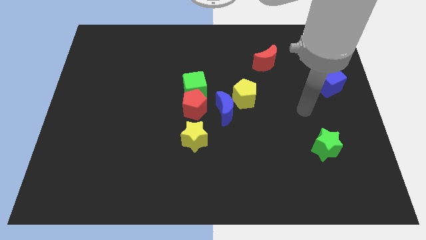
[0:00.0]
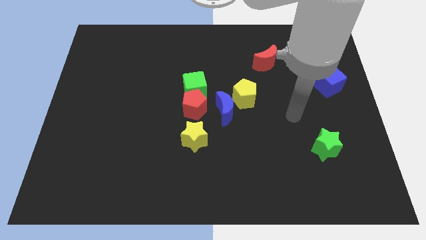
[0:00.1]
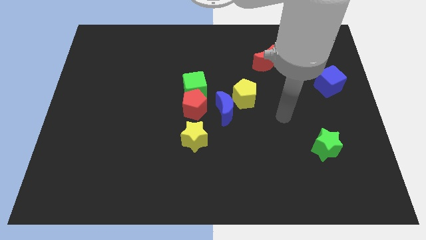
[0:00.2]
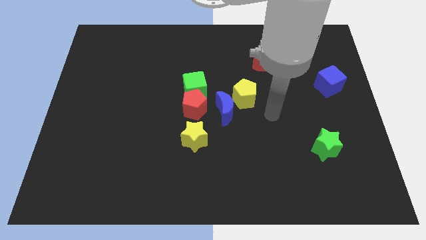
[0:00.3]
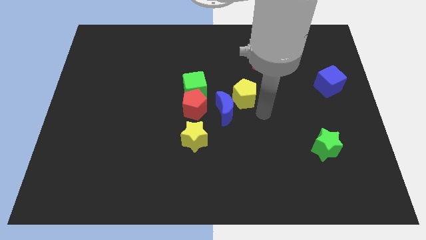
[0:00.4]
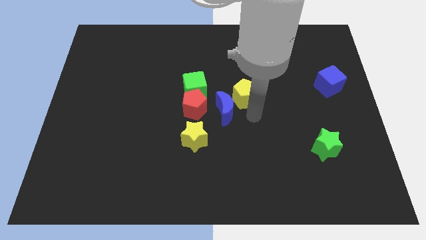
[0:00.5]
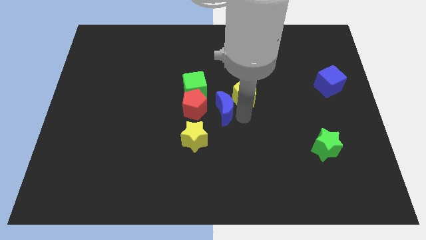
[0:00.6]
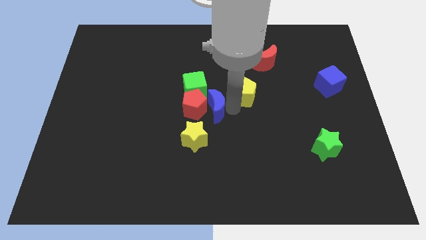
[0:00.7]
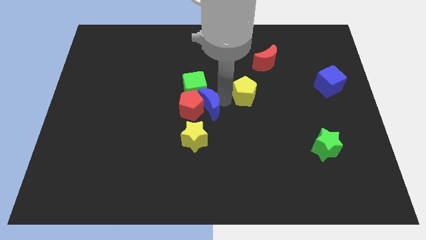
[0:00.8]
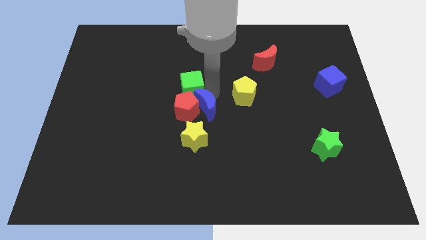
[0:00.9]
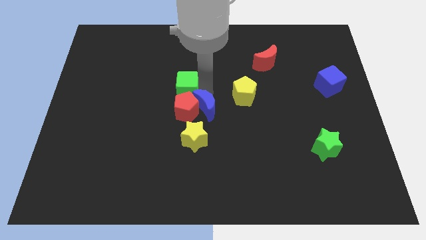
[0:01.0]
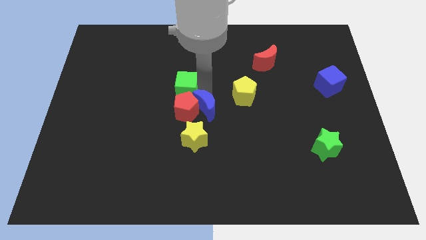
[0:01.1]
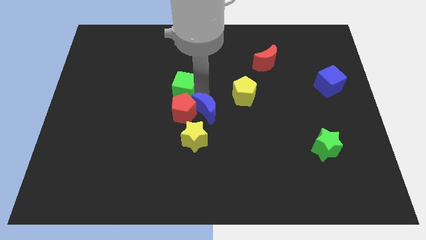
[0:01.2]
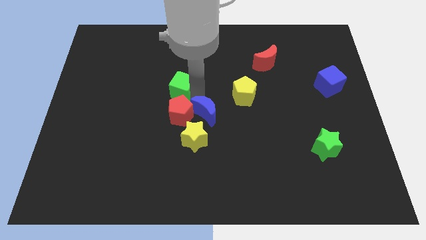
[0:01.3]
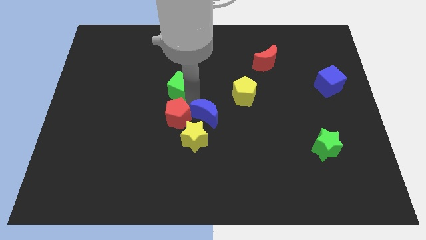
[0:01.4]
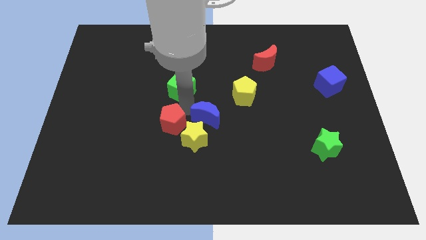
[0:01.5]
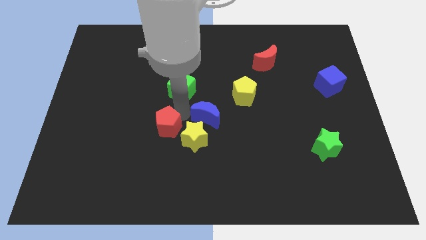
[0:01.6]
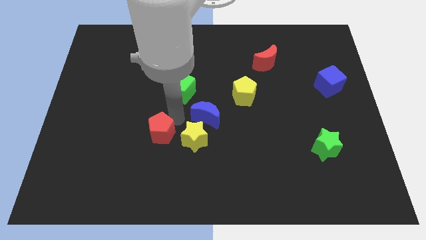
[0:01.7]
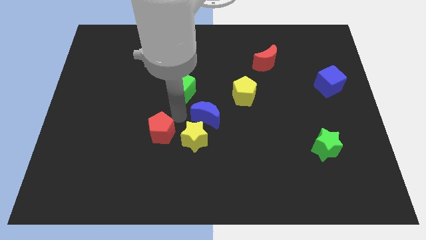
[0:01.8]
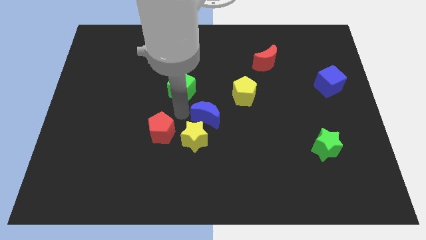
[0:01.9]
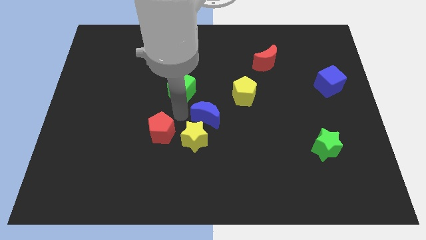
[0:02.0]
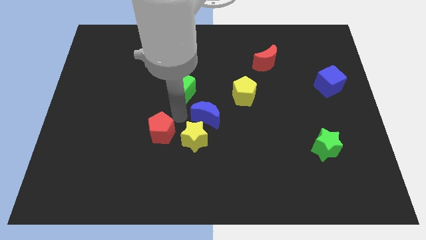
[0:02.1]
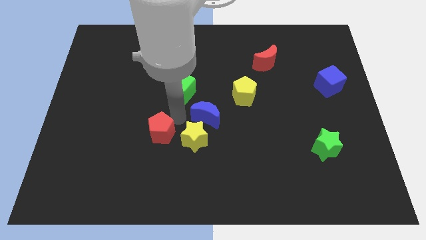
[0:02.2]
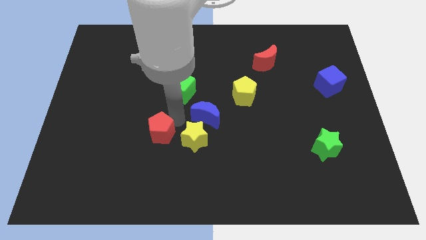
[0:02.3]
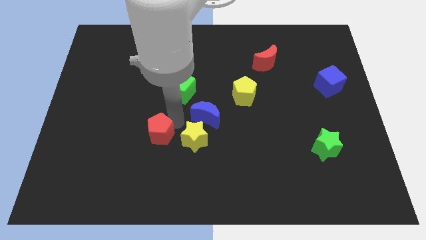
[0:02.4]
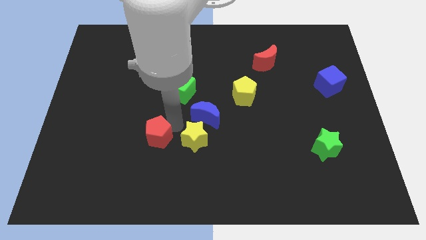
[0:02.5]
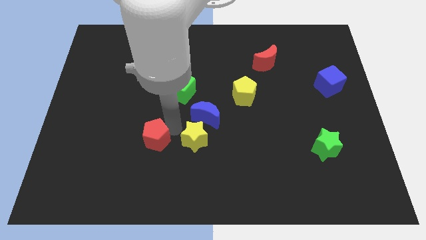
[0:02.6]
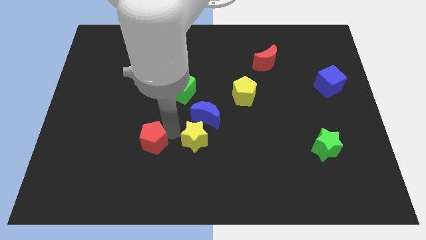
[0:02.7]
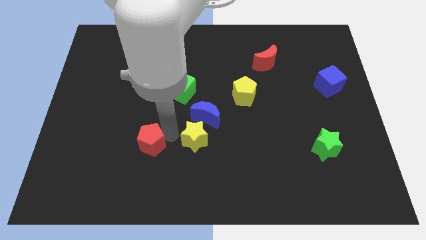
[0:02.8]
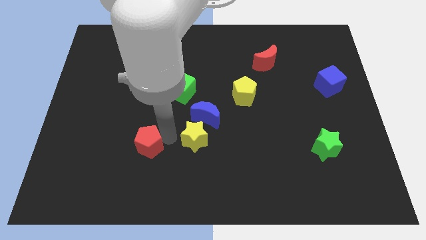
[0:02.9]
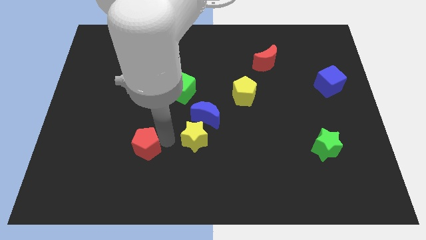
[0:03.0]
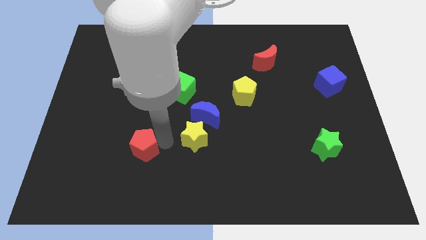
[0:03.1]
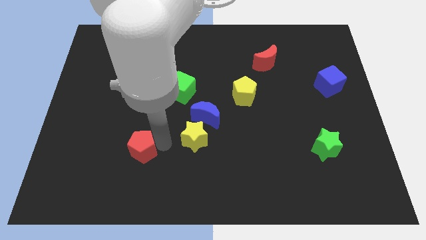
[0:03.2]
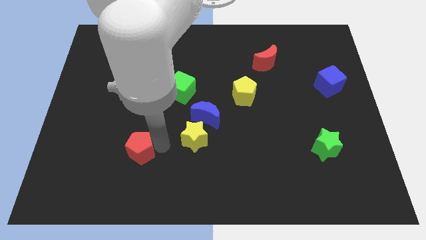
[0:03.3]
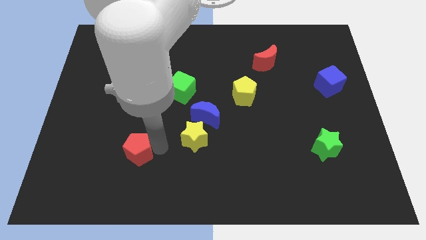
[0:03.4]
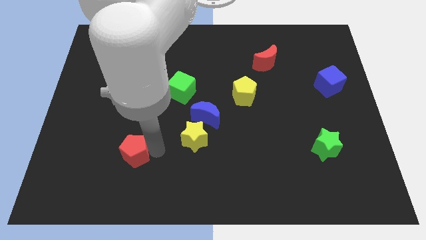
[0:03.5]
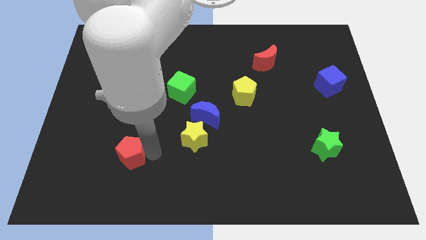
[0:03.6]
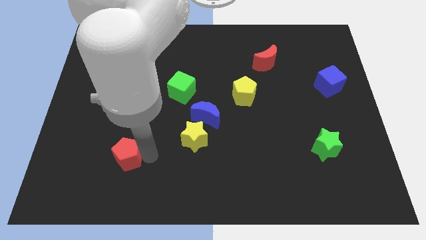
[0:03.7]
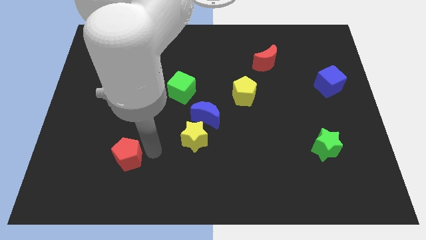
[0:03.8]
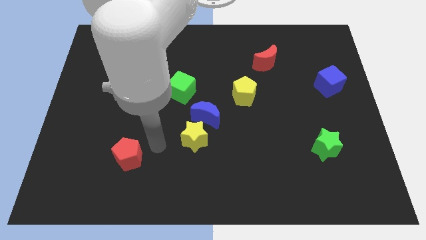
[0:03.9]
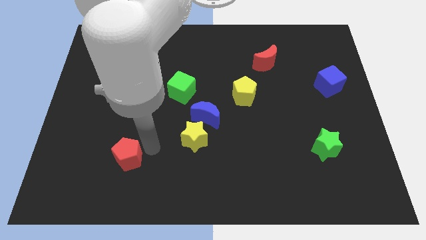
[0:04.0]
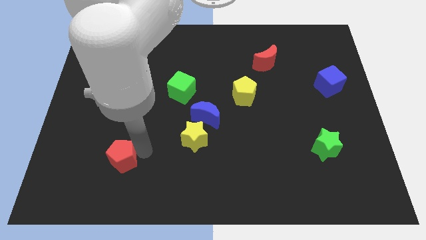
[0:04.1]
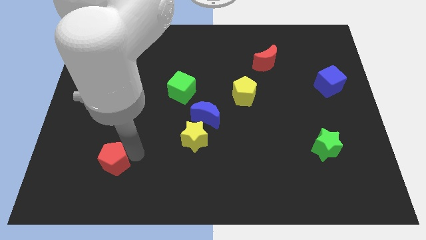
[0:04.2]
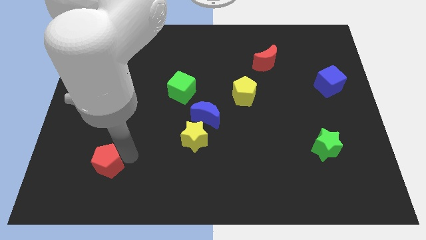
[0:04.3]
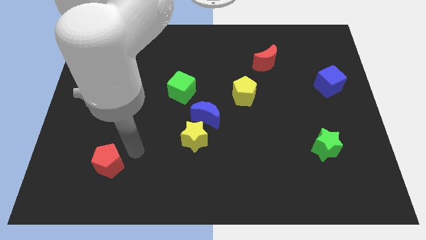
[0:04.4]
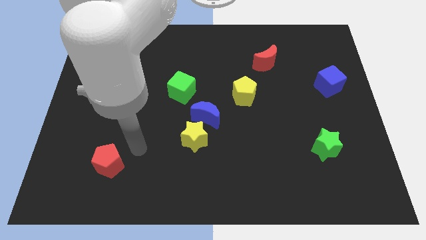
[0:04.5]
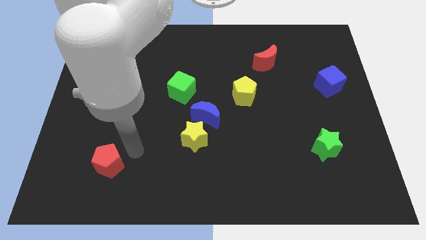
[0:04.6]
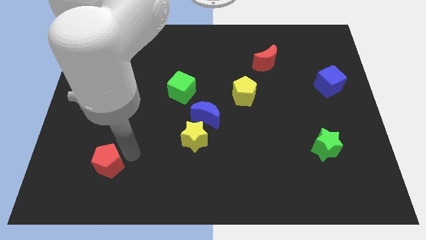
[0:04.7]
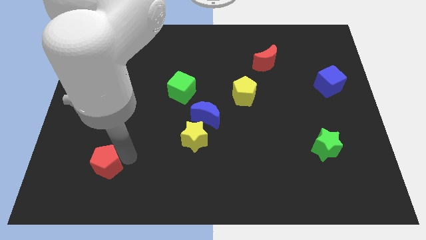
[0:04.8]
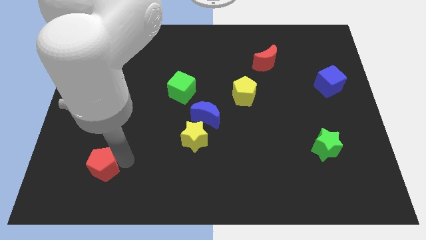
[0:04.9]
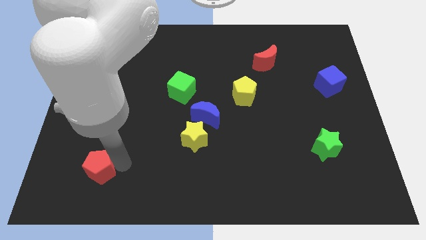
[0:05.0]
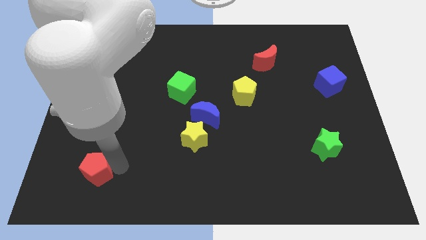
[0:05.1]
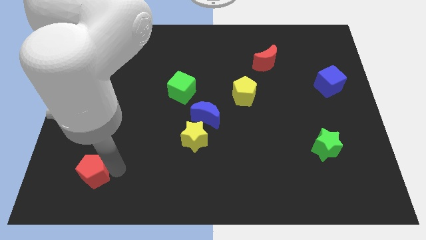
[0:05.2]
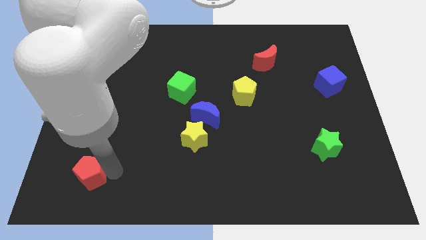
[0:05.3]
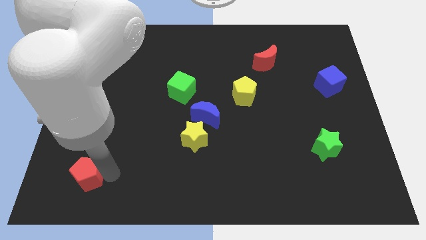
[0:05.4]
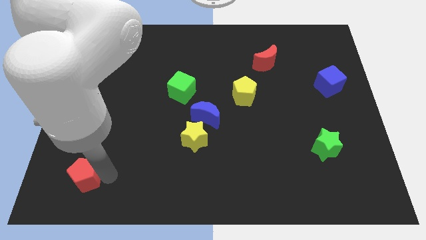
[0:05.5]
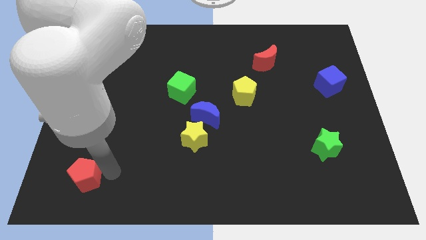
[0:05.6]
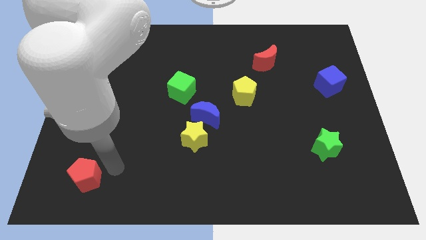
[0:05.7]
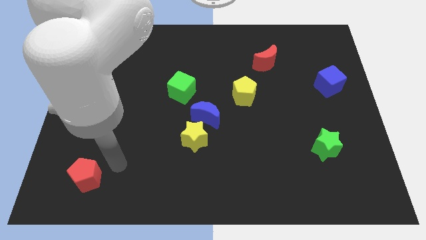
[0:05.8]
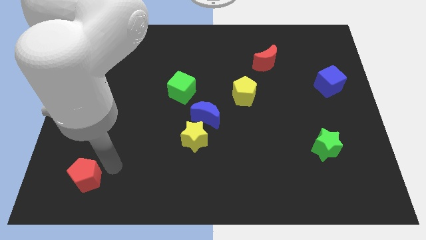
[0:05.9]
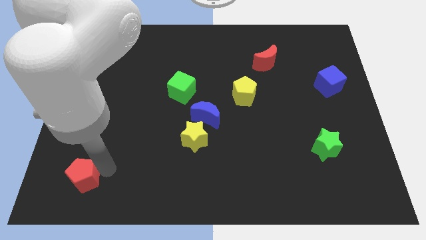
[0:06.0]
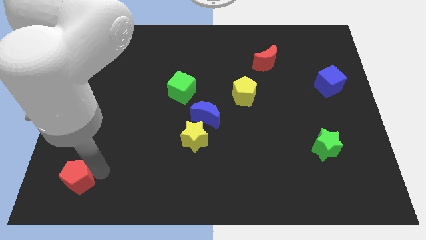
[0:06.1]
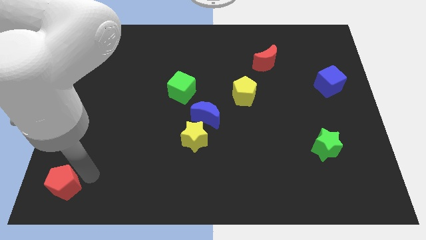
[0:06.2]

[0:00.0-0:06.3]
move the red pentagon to the bottom left
